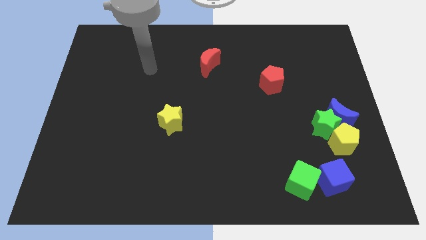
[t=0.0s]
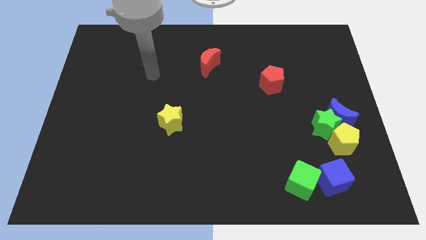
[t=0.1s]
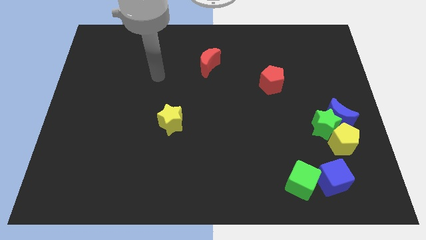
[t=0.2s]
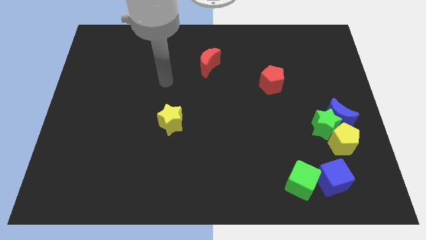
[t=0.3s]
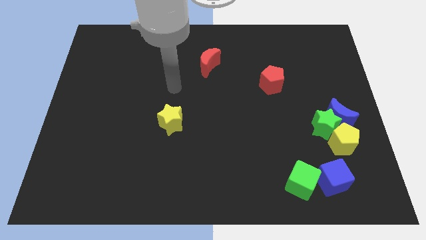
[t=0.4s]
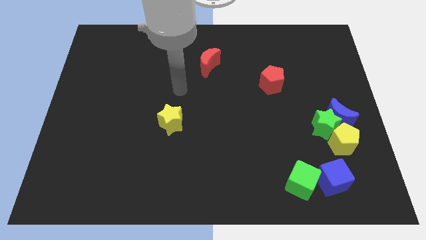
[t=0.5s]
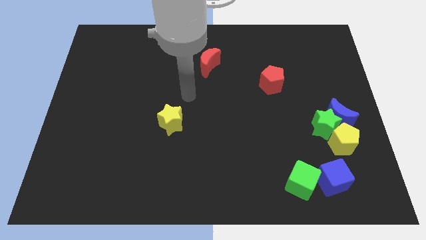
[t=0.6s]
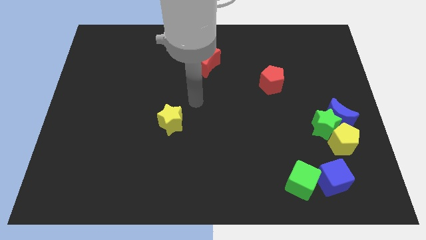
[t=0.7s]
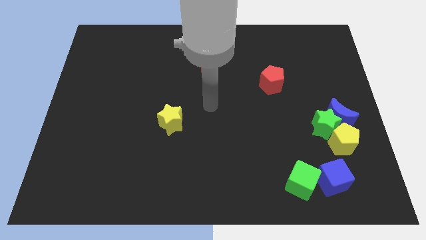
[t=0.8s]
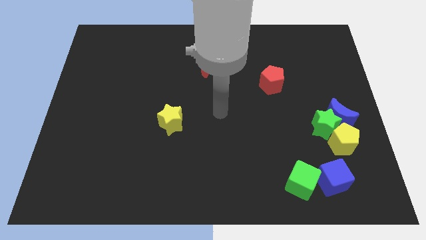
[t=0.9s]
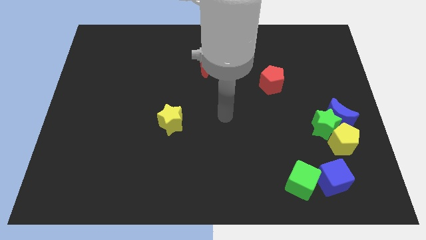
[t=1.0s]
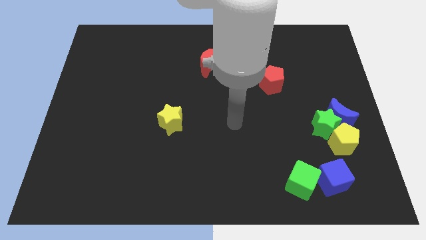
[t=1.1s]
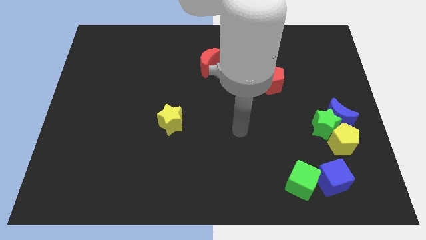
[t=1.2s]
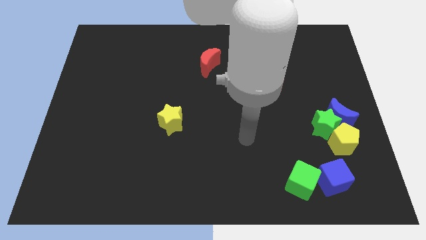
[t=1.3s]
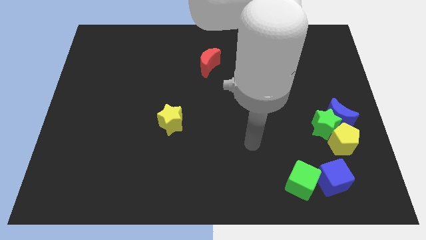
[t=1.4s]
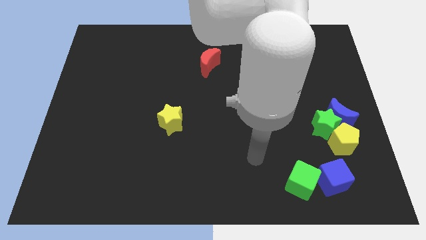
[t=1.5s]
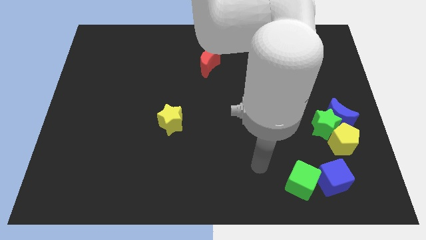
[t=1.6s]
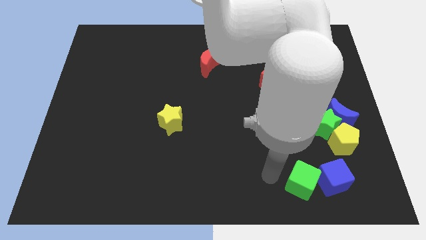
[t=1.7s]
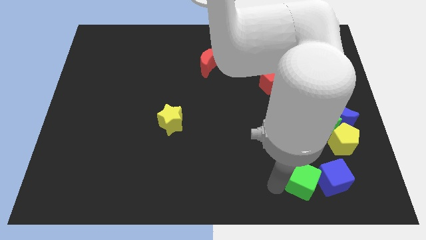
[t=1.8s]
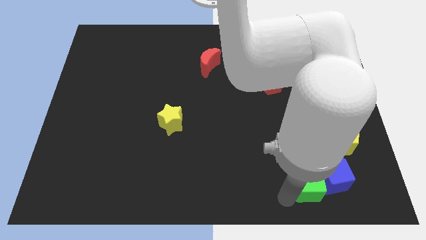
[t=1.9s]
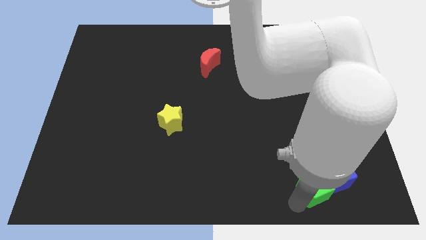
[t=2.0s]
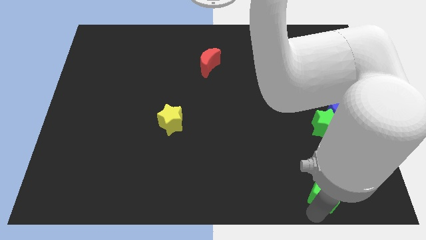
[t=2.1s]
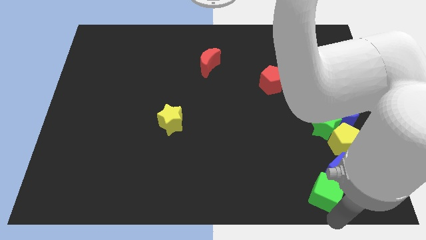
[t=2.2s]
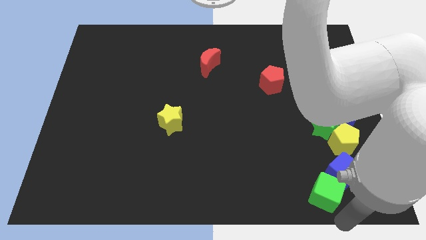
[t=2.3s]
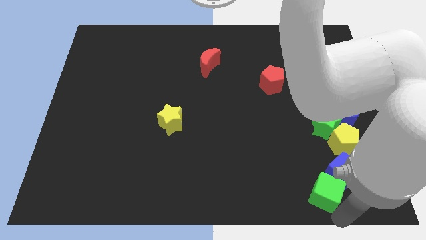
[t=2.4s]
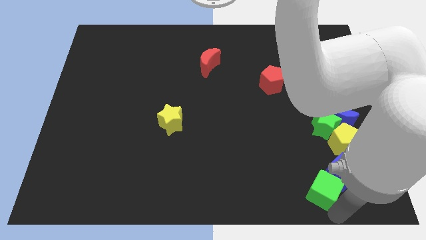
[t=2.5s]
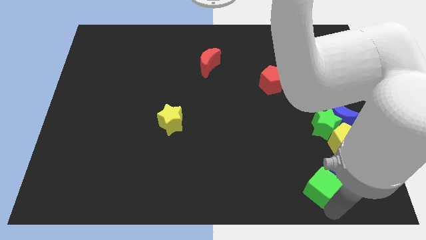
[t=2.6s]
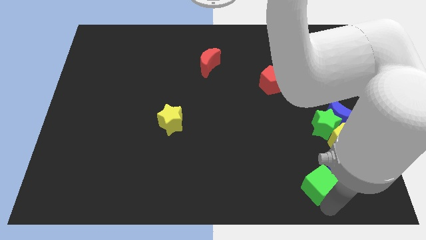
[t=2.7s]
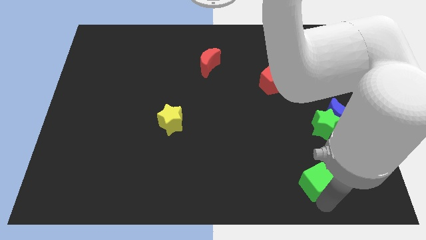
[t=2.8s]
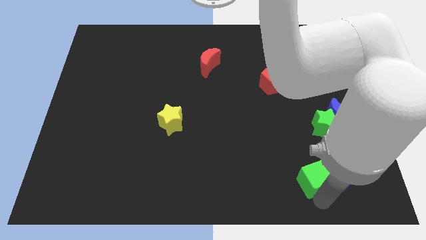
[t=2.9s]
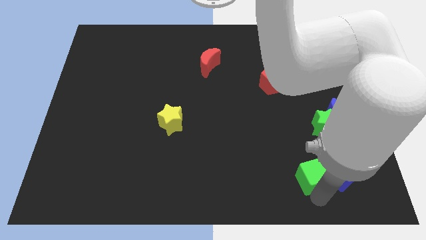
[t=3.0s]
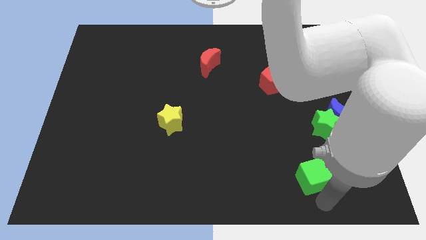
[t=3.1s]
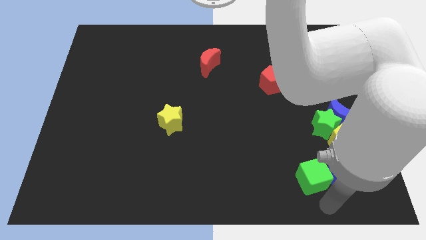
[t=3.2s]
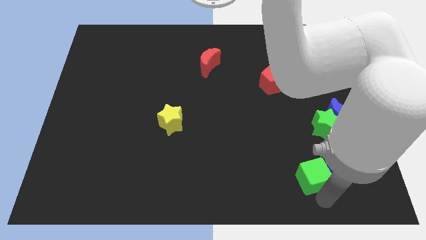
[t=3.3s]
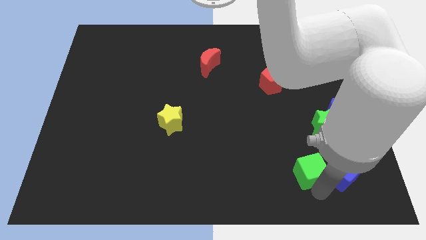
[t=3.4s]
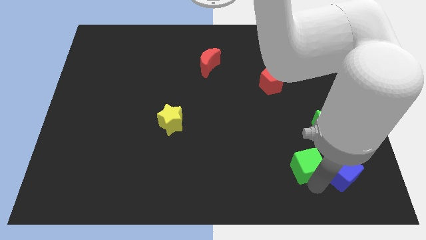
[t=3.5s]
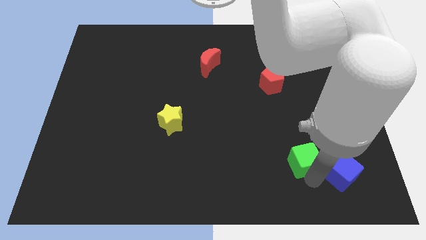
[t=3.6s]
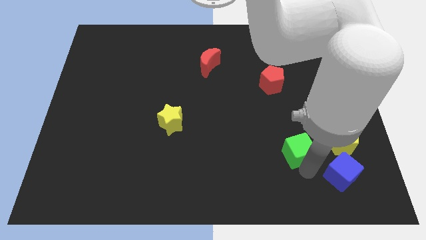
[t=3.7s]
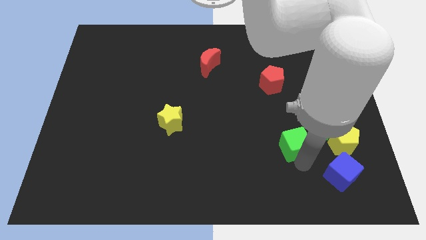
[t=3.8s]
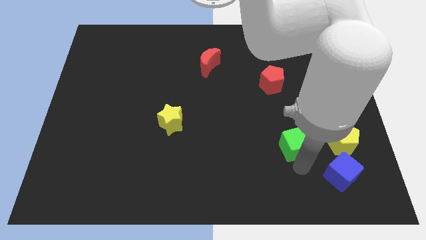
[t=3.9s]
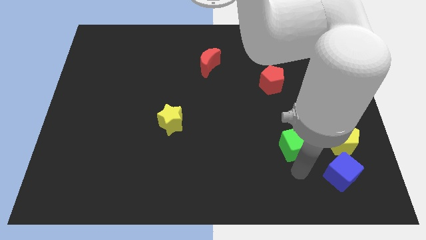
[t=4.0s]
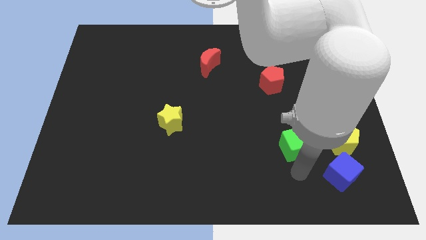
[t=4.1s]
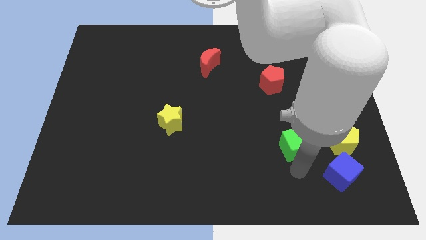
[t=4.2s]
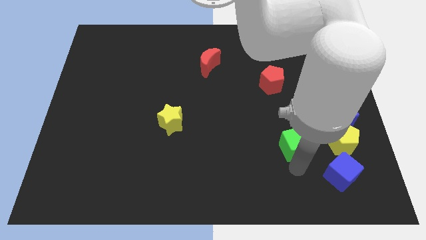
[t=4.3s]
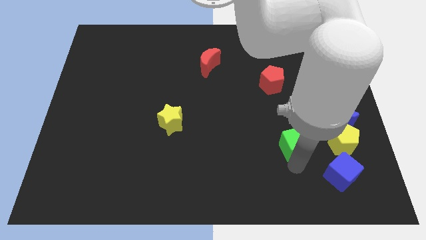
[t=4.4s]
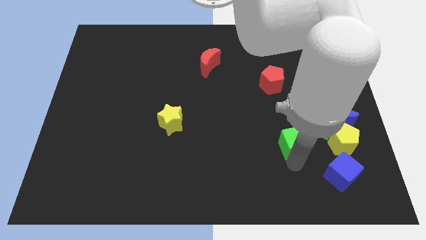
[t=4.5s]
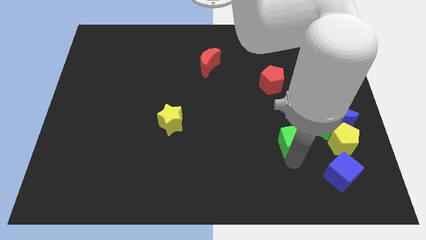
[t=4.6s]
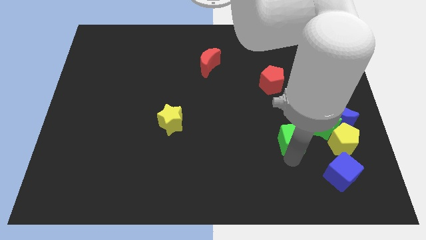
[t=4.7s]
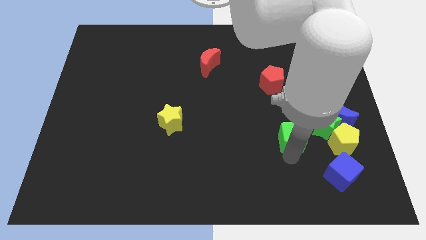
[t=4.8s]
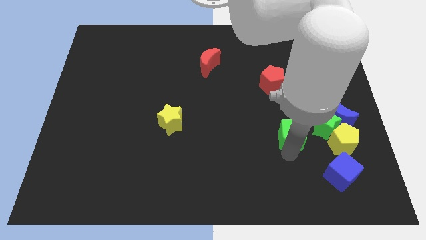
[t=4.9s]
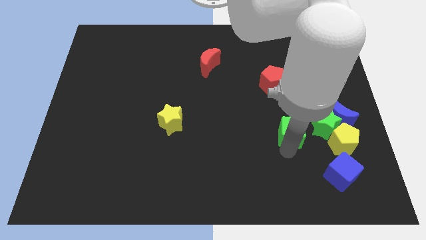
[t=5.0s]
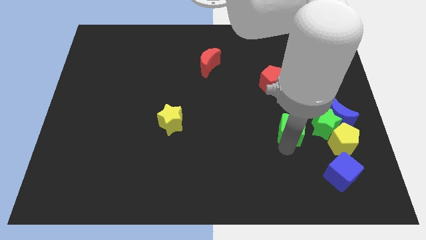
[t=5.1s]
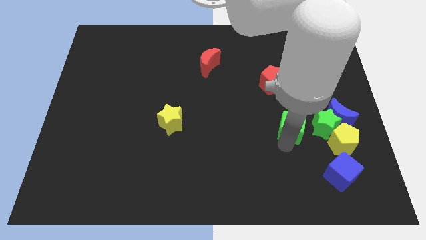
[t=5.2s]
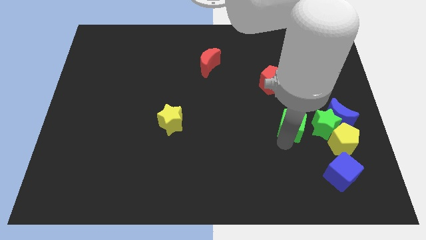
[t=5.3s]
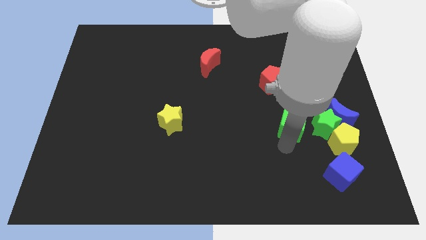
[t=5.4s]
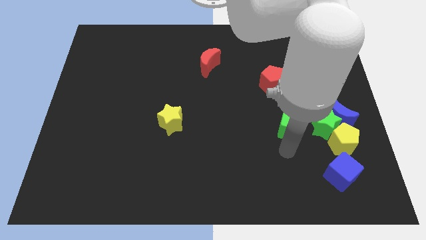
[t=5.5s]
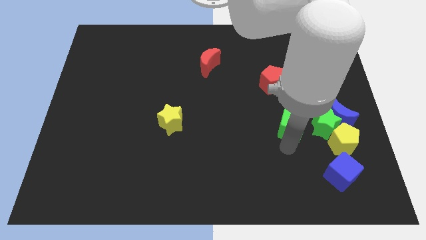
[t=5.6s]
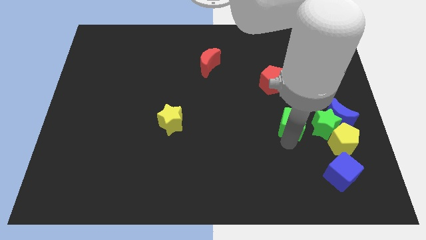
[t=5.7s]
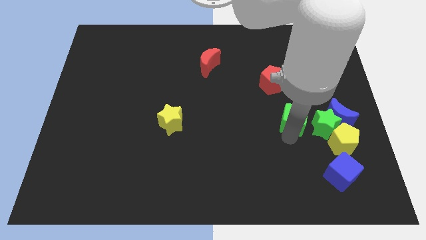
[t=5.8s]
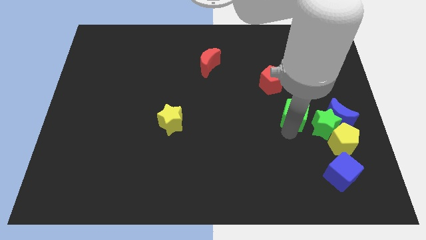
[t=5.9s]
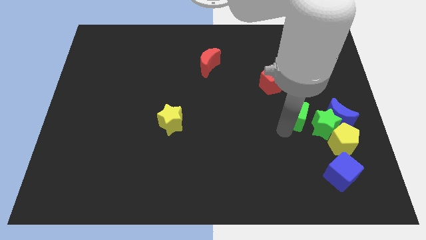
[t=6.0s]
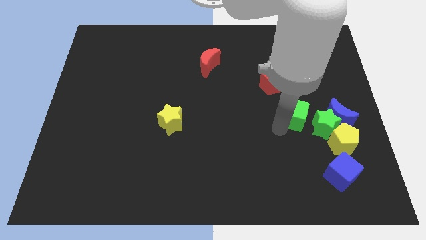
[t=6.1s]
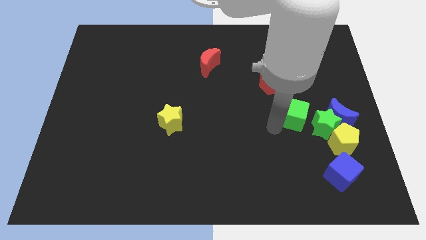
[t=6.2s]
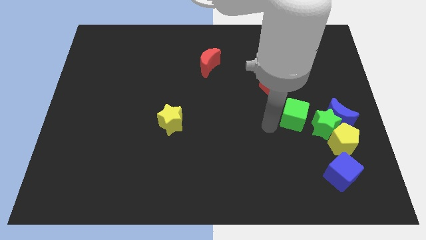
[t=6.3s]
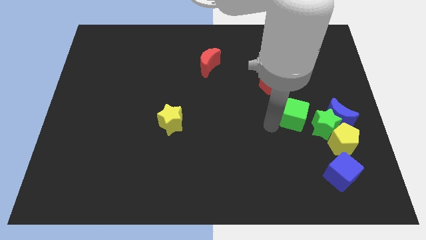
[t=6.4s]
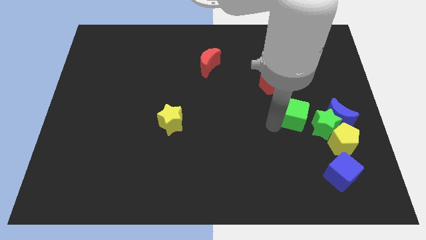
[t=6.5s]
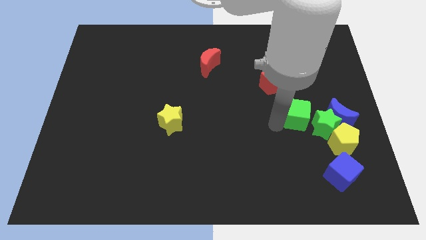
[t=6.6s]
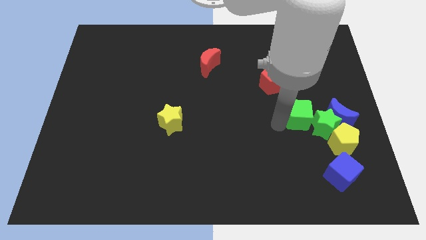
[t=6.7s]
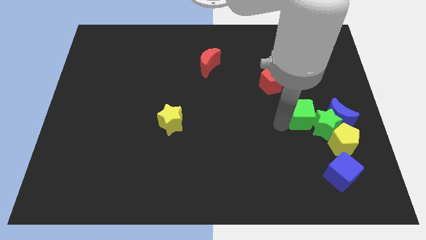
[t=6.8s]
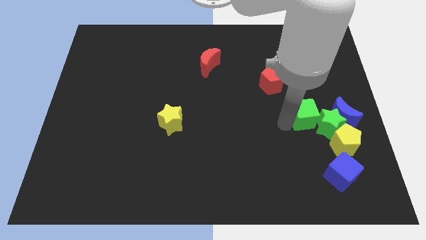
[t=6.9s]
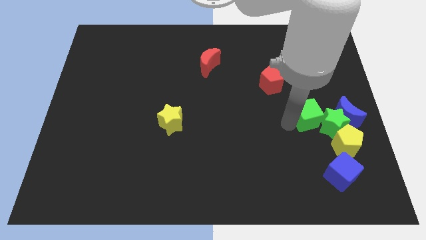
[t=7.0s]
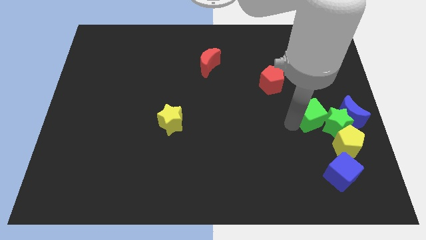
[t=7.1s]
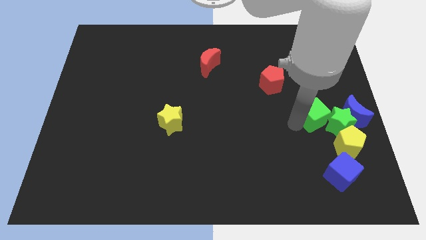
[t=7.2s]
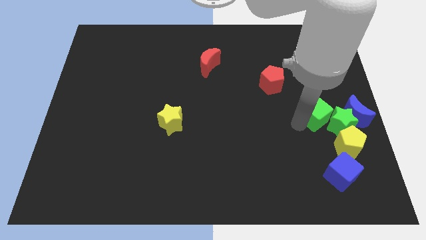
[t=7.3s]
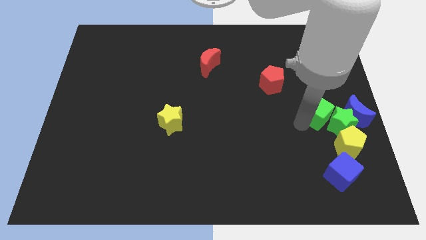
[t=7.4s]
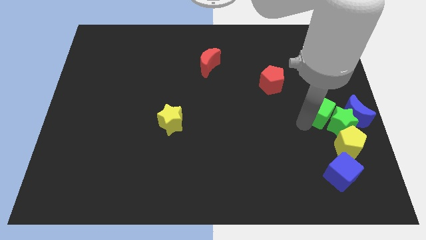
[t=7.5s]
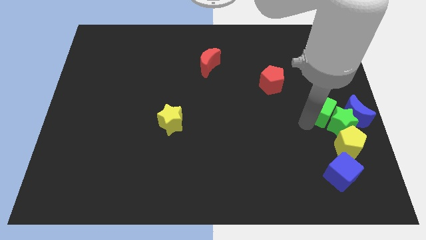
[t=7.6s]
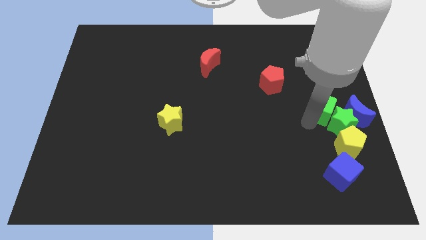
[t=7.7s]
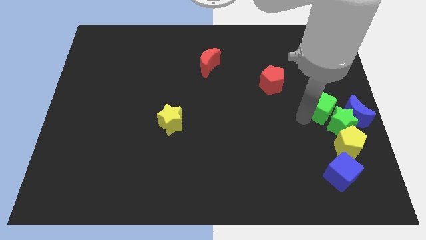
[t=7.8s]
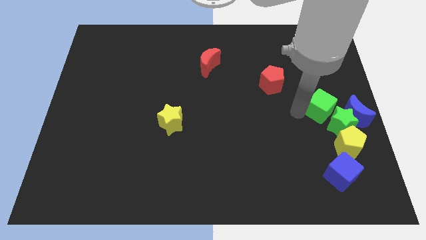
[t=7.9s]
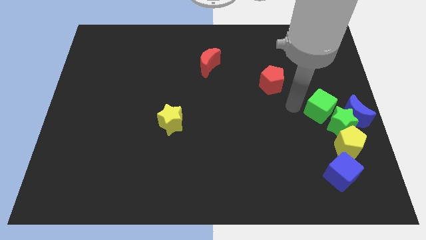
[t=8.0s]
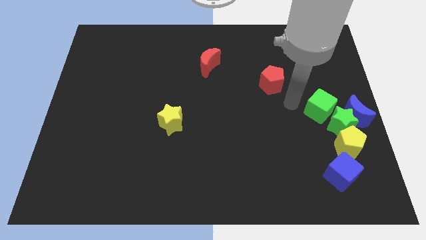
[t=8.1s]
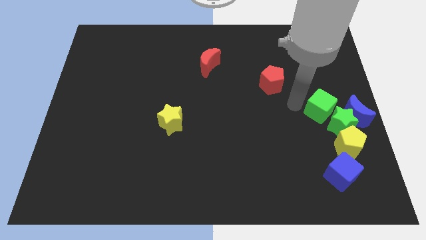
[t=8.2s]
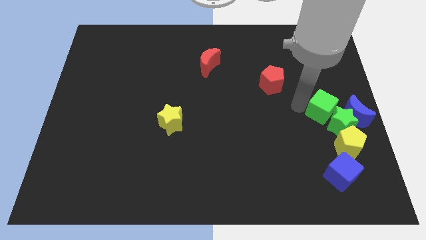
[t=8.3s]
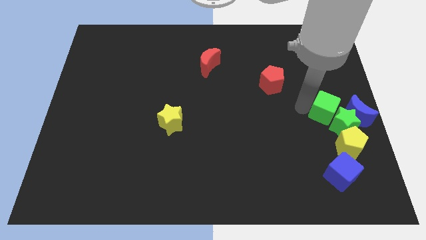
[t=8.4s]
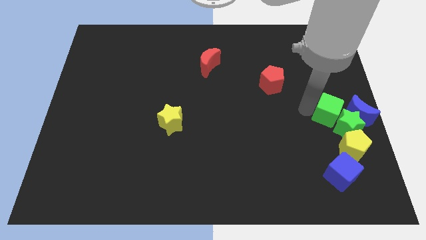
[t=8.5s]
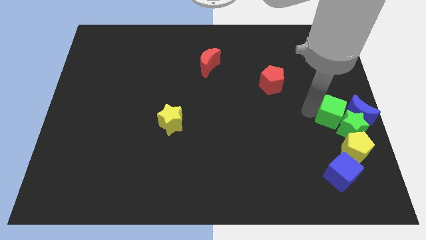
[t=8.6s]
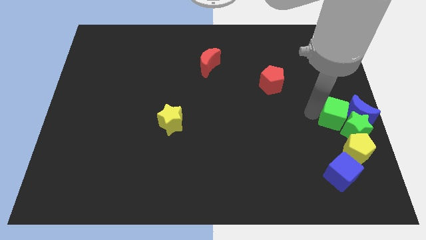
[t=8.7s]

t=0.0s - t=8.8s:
slide the green cube close to the blue moon
